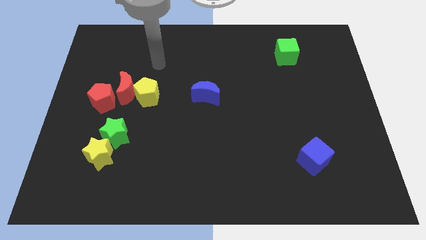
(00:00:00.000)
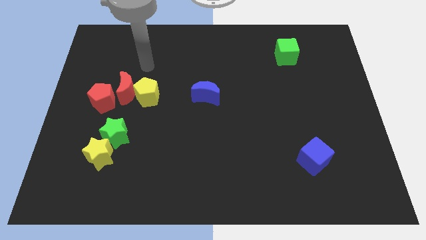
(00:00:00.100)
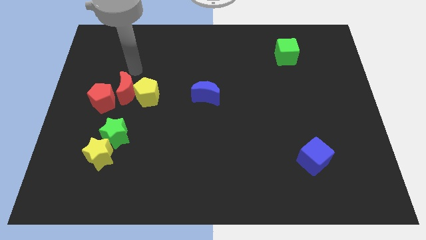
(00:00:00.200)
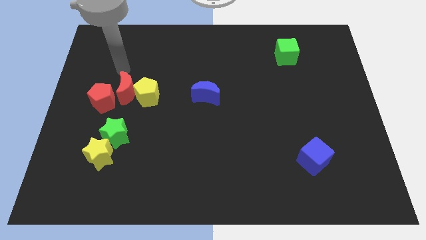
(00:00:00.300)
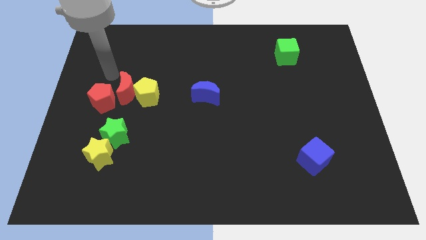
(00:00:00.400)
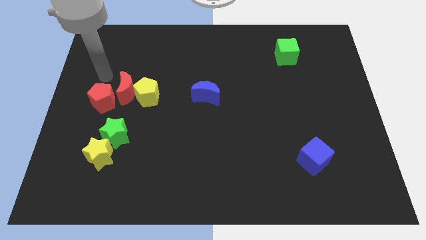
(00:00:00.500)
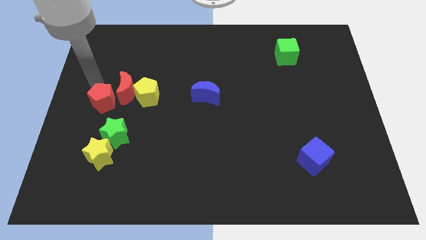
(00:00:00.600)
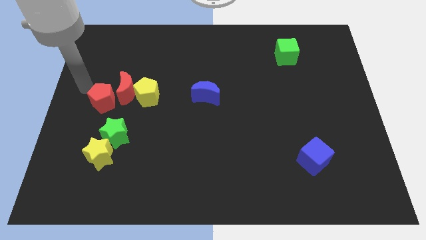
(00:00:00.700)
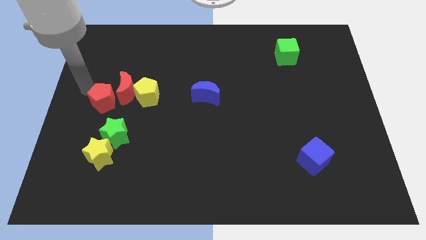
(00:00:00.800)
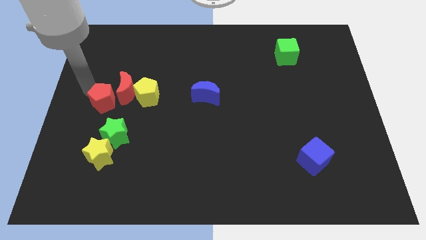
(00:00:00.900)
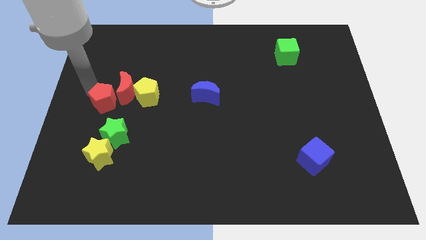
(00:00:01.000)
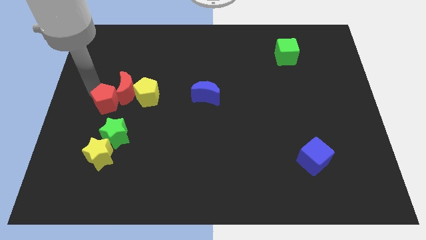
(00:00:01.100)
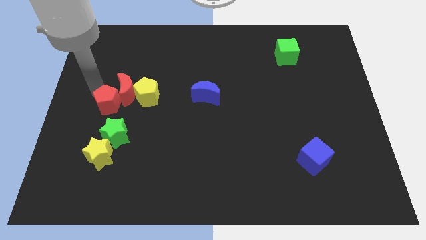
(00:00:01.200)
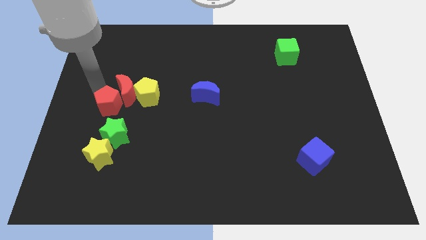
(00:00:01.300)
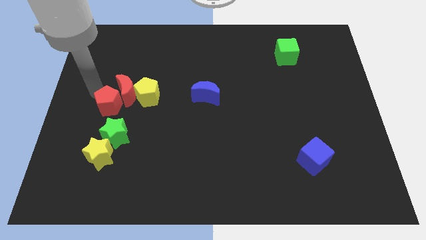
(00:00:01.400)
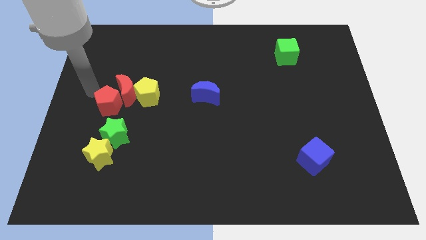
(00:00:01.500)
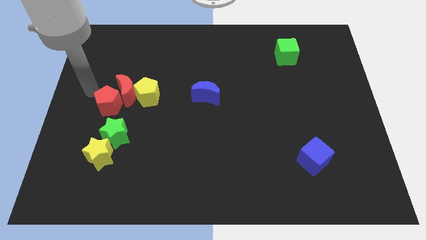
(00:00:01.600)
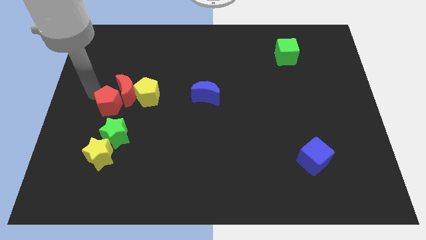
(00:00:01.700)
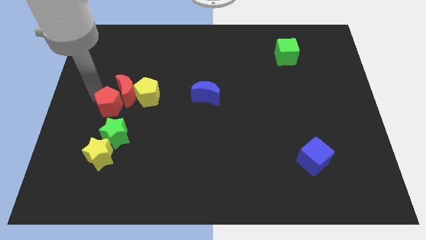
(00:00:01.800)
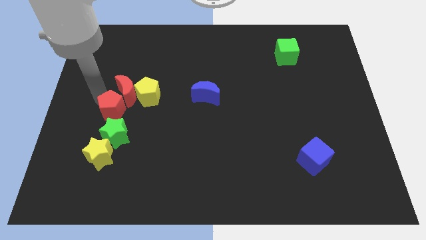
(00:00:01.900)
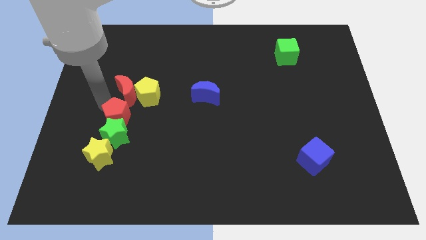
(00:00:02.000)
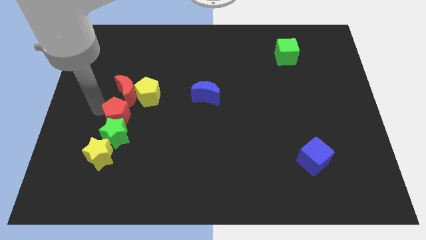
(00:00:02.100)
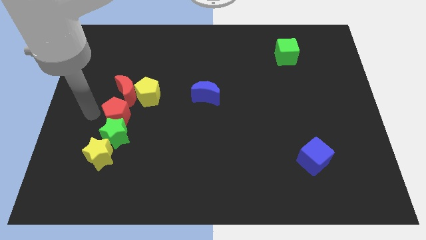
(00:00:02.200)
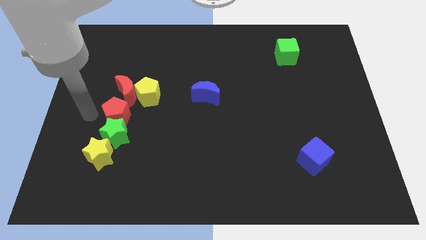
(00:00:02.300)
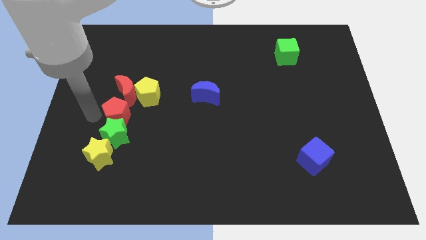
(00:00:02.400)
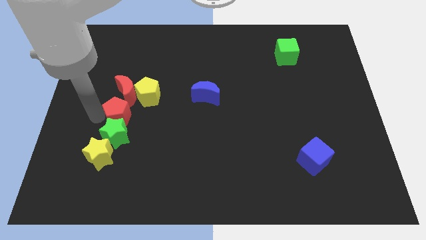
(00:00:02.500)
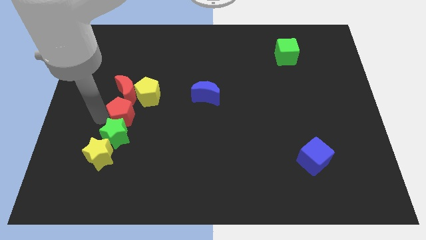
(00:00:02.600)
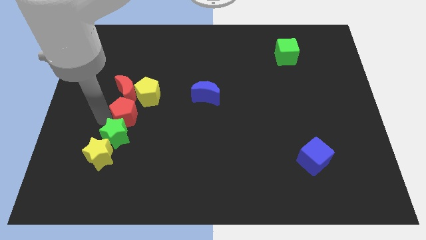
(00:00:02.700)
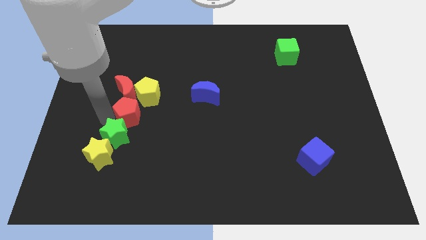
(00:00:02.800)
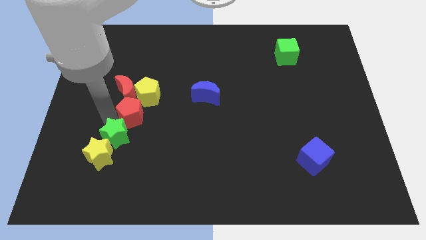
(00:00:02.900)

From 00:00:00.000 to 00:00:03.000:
slide the red pentagon a bit right

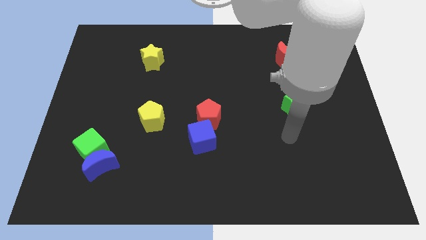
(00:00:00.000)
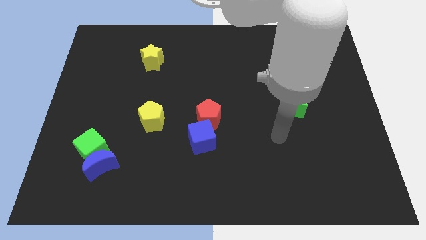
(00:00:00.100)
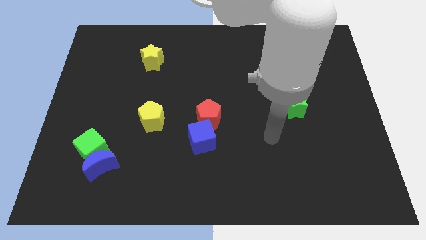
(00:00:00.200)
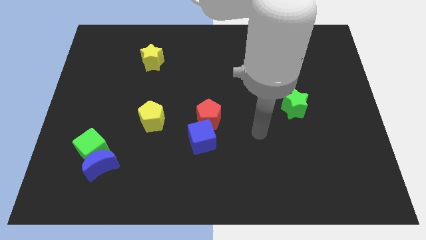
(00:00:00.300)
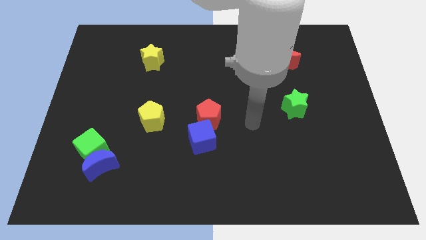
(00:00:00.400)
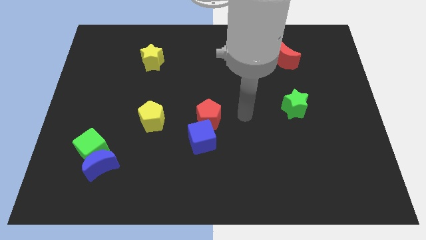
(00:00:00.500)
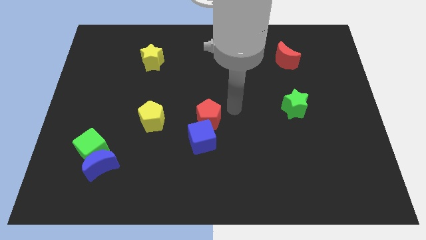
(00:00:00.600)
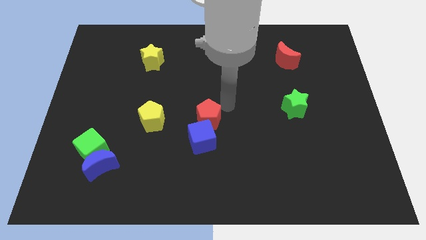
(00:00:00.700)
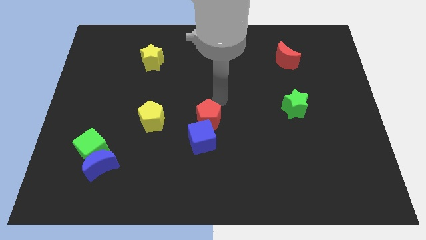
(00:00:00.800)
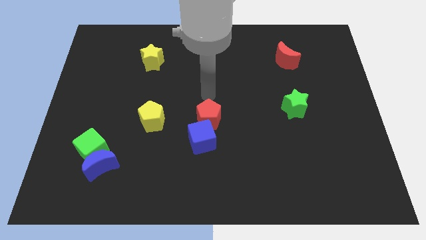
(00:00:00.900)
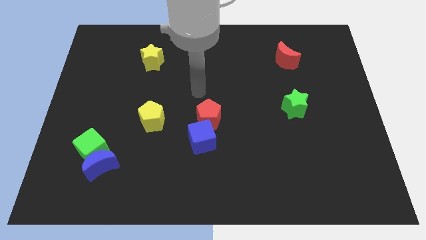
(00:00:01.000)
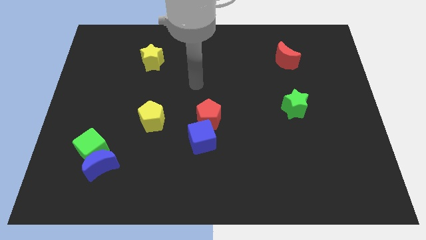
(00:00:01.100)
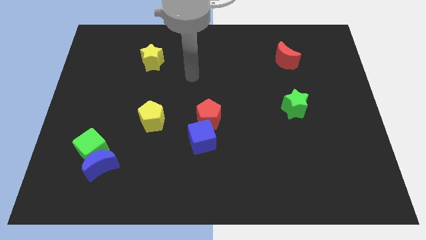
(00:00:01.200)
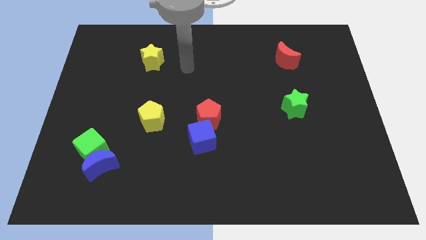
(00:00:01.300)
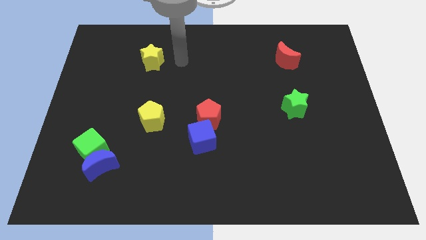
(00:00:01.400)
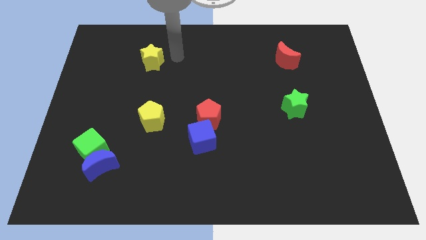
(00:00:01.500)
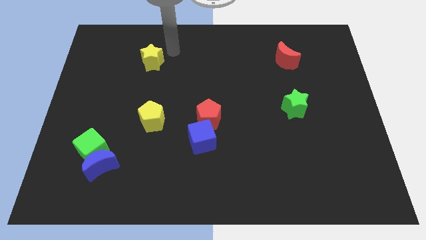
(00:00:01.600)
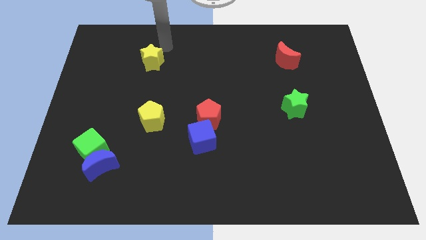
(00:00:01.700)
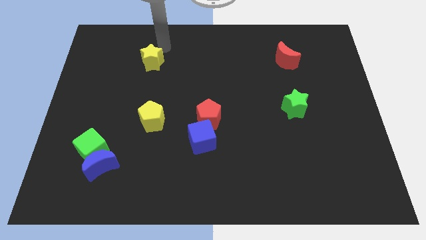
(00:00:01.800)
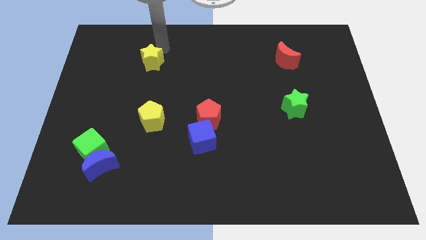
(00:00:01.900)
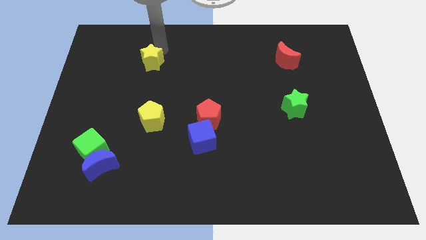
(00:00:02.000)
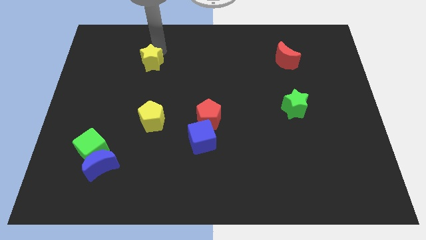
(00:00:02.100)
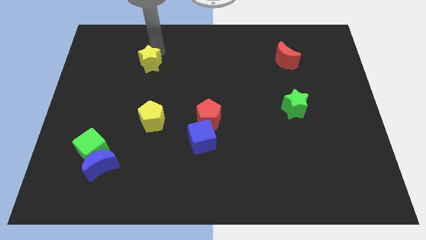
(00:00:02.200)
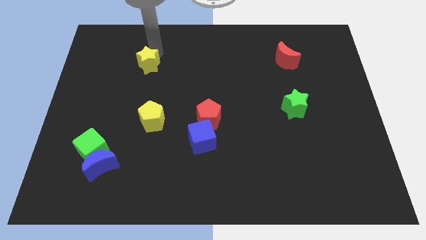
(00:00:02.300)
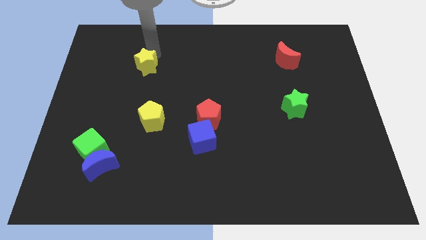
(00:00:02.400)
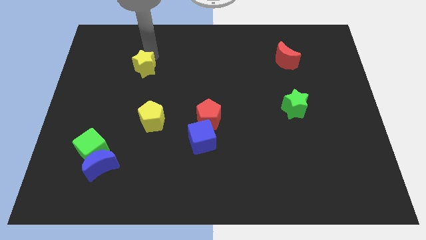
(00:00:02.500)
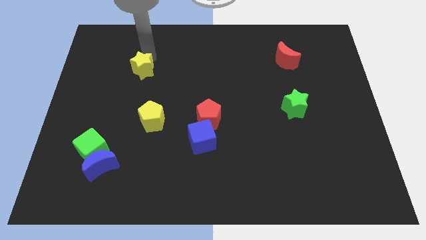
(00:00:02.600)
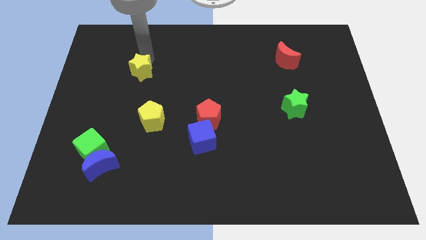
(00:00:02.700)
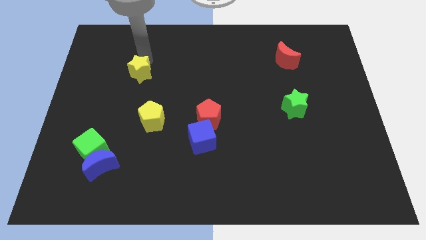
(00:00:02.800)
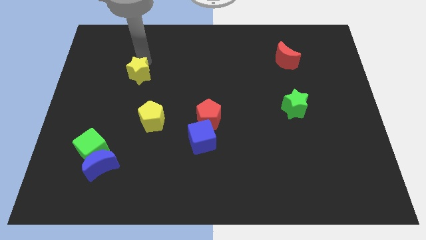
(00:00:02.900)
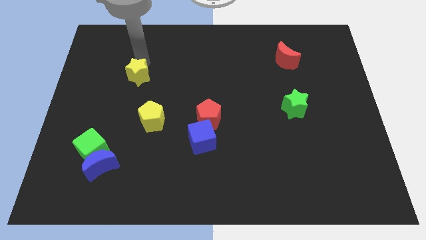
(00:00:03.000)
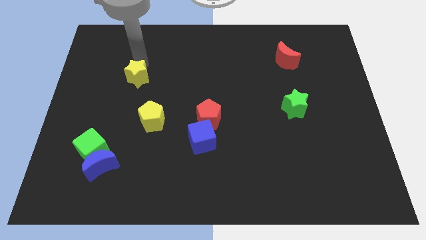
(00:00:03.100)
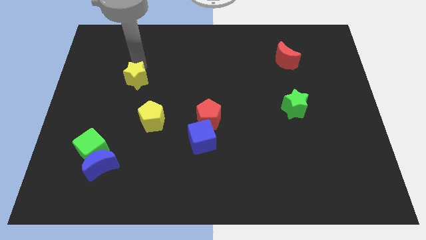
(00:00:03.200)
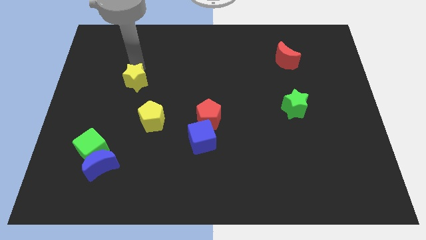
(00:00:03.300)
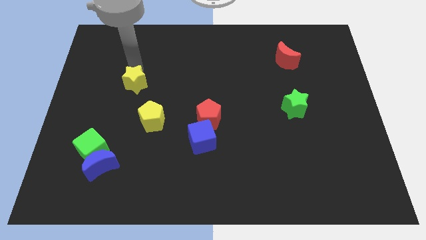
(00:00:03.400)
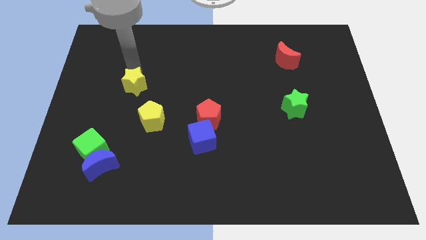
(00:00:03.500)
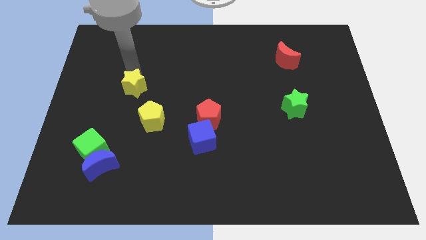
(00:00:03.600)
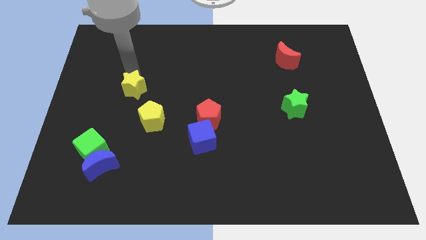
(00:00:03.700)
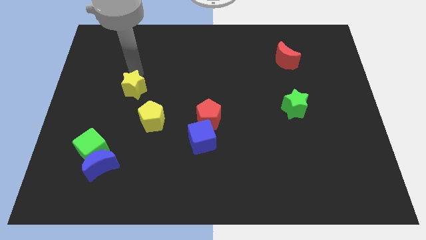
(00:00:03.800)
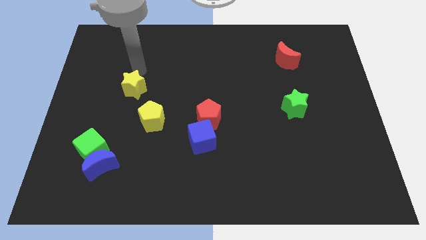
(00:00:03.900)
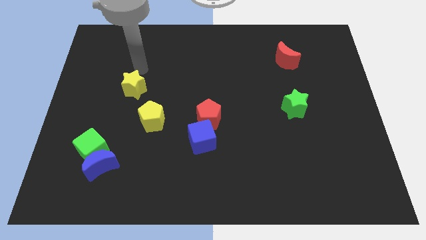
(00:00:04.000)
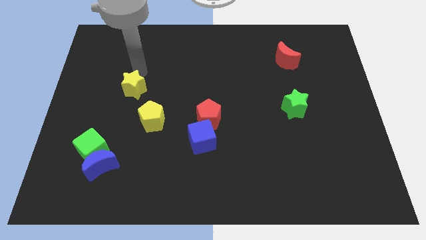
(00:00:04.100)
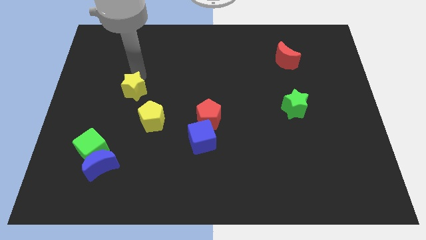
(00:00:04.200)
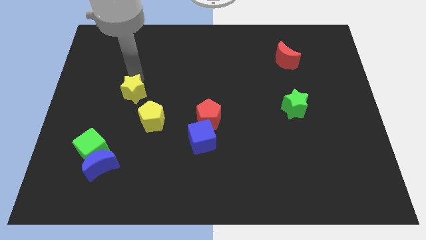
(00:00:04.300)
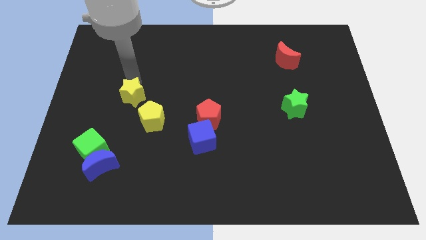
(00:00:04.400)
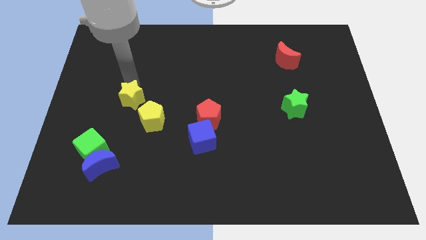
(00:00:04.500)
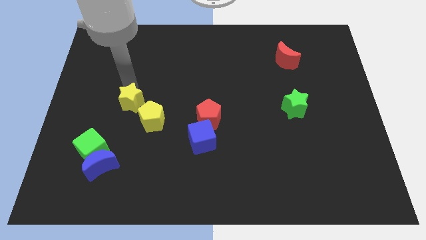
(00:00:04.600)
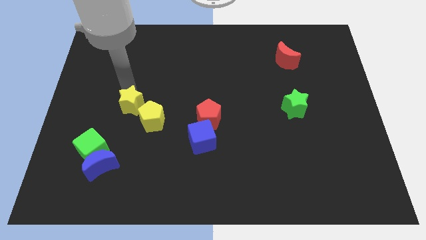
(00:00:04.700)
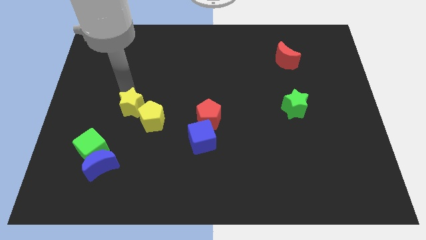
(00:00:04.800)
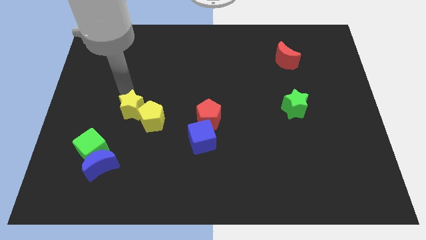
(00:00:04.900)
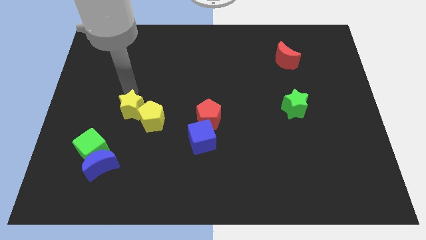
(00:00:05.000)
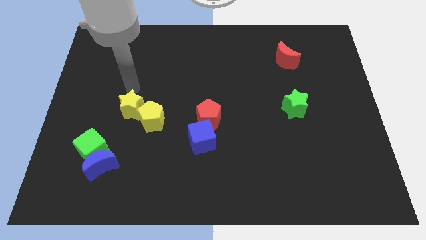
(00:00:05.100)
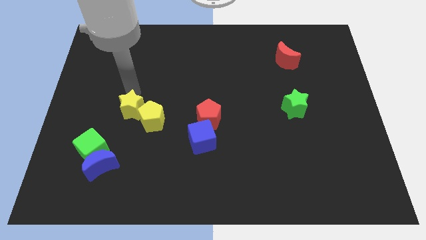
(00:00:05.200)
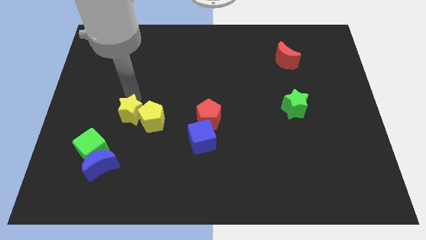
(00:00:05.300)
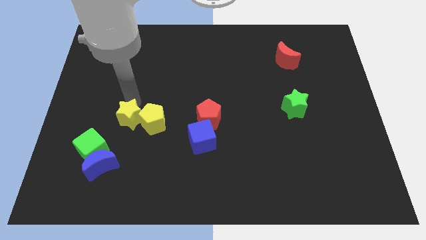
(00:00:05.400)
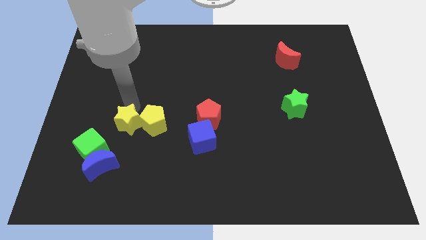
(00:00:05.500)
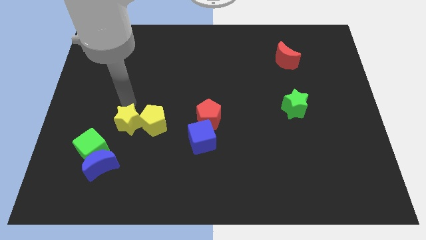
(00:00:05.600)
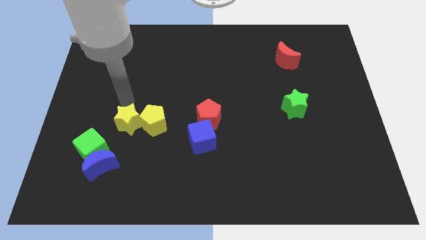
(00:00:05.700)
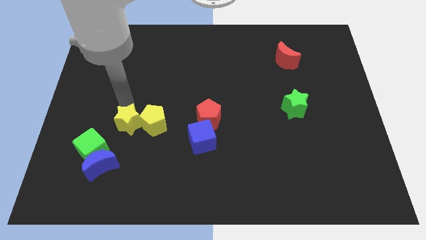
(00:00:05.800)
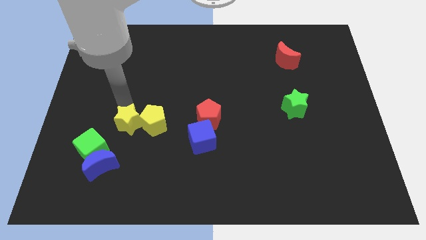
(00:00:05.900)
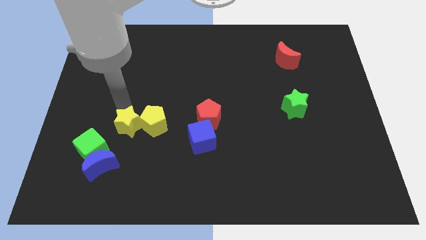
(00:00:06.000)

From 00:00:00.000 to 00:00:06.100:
push the yellow star downwards
